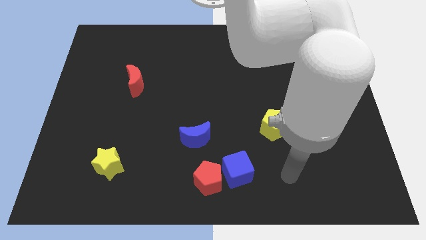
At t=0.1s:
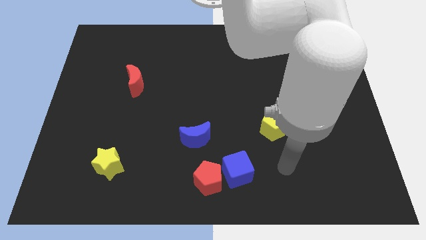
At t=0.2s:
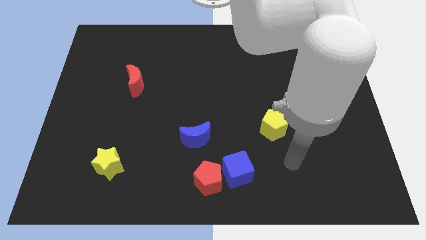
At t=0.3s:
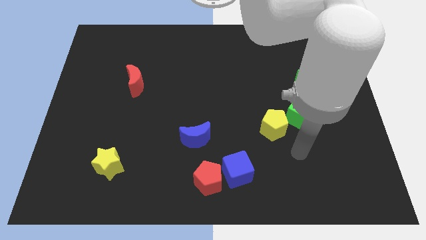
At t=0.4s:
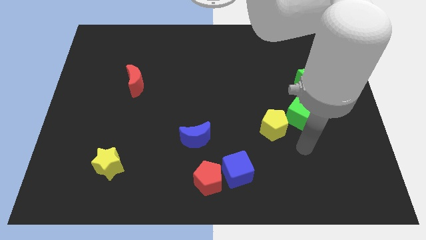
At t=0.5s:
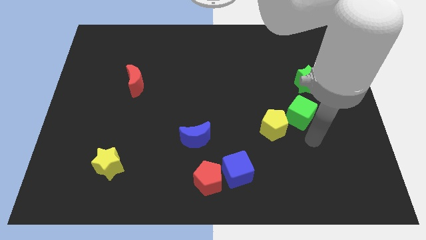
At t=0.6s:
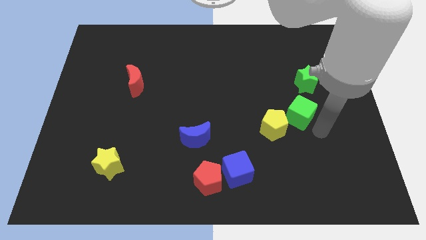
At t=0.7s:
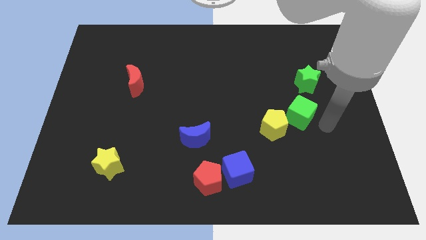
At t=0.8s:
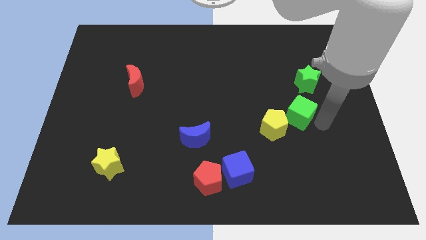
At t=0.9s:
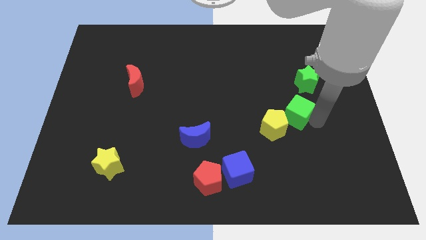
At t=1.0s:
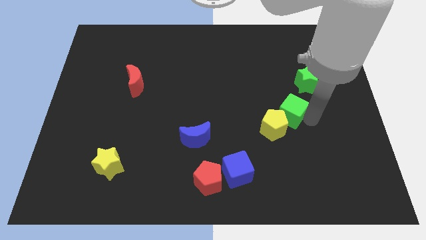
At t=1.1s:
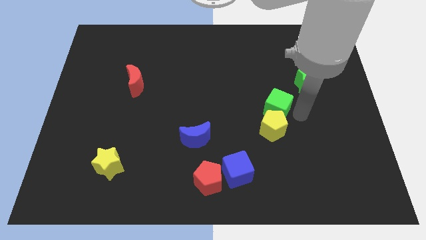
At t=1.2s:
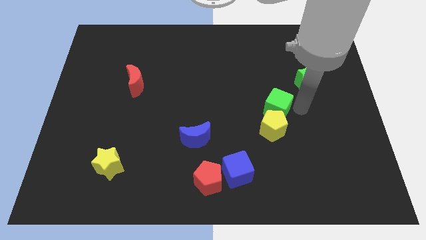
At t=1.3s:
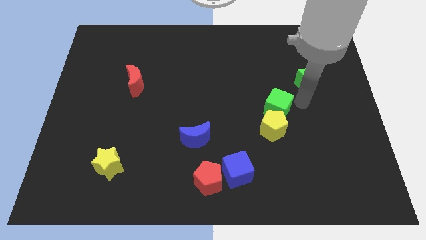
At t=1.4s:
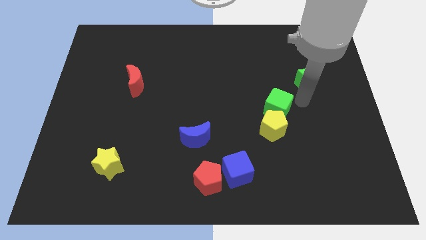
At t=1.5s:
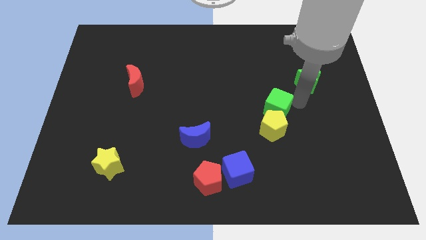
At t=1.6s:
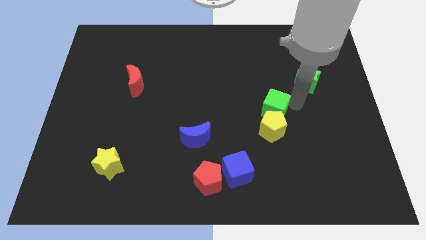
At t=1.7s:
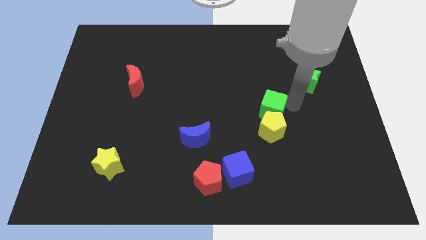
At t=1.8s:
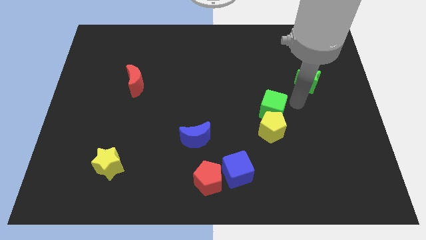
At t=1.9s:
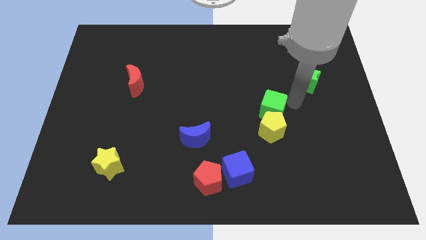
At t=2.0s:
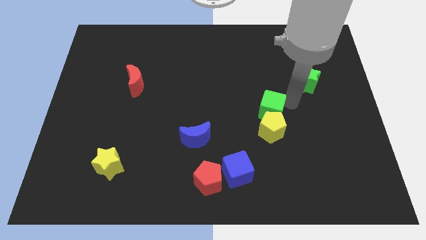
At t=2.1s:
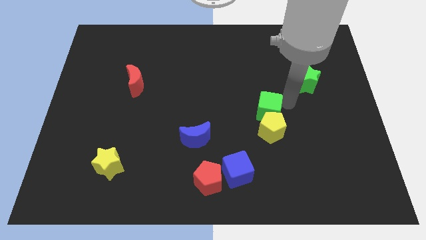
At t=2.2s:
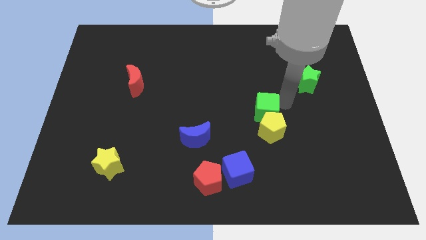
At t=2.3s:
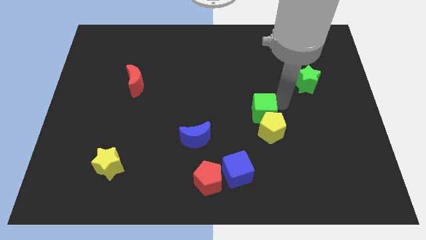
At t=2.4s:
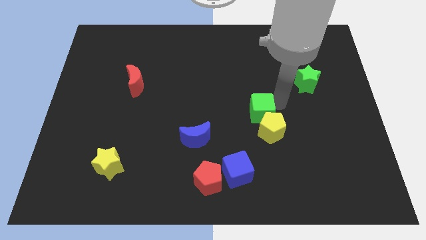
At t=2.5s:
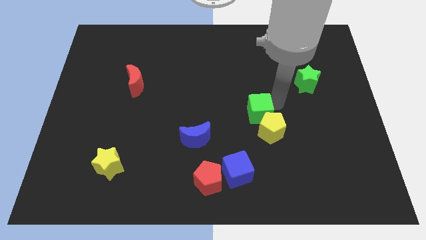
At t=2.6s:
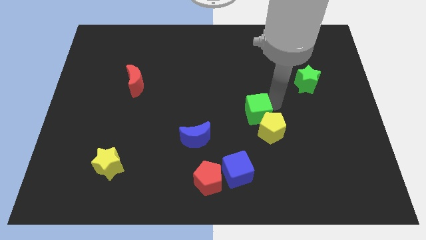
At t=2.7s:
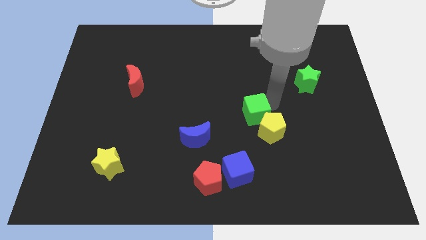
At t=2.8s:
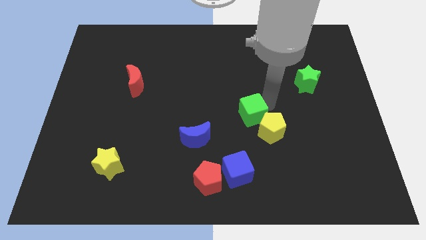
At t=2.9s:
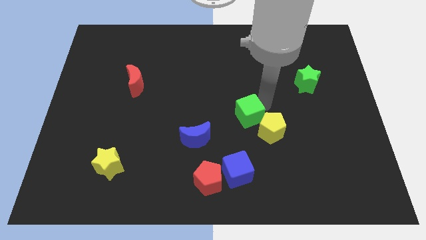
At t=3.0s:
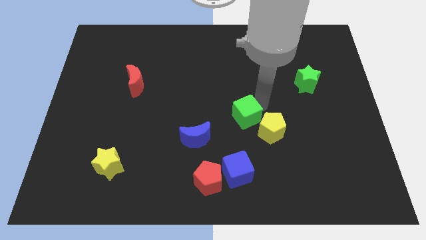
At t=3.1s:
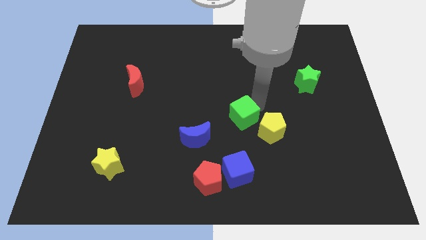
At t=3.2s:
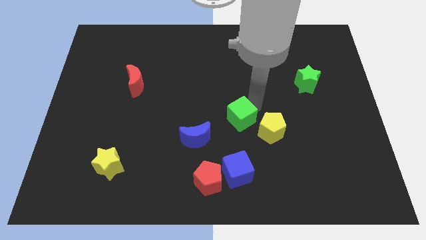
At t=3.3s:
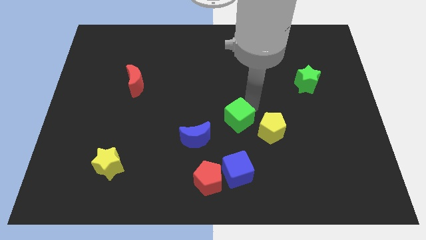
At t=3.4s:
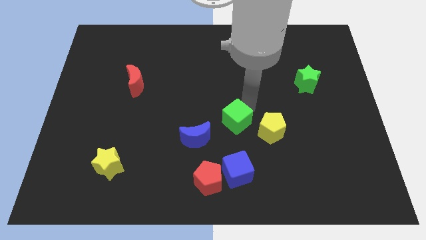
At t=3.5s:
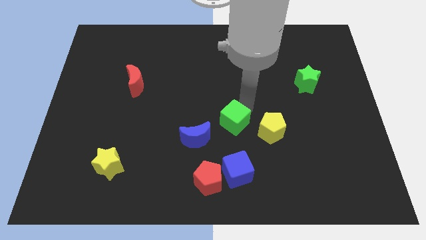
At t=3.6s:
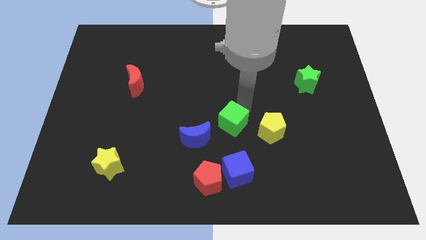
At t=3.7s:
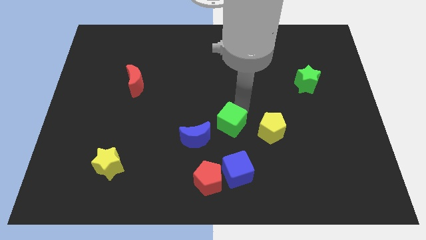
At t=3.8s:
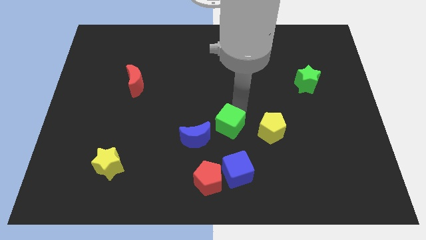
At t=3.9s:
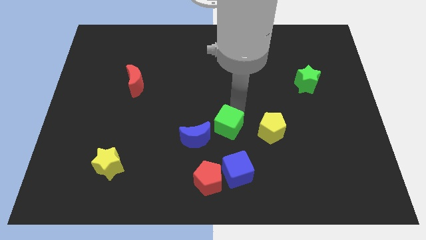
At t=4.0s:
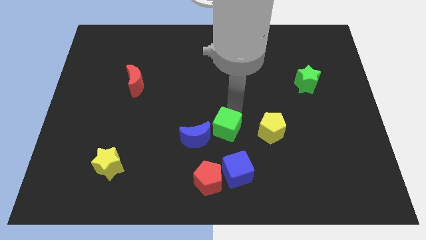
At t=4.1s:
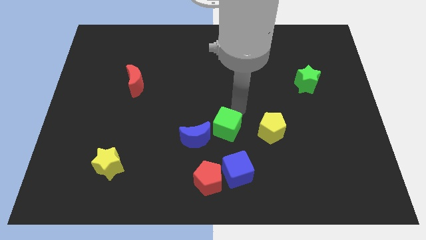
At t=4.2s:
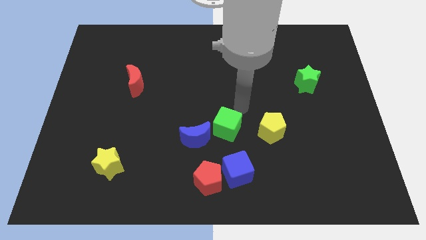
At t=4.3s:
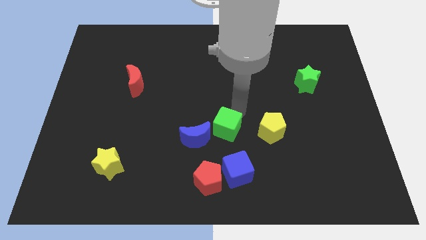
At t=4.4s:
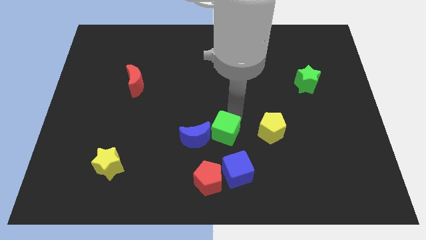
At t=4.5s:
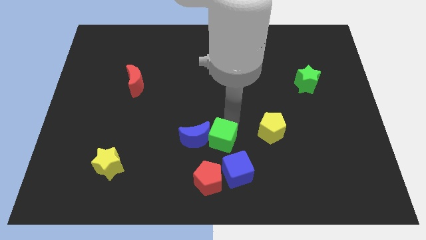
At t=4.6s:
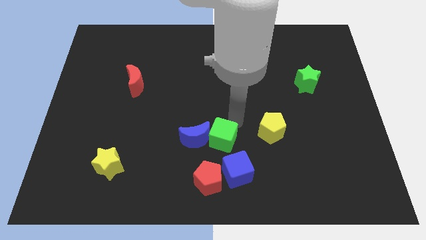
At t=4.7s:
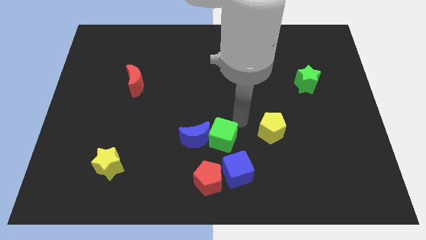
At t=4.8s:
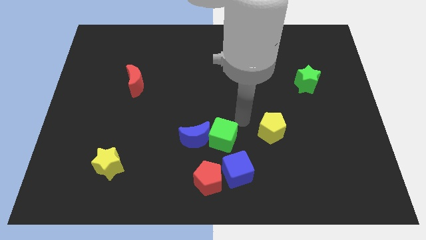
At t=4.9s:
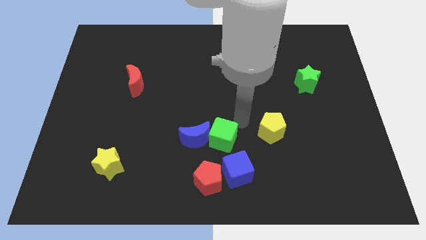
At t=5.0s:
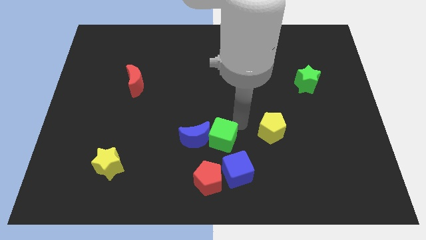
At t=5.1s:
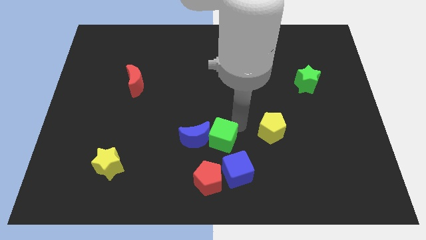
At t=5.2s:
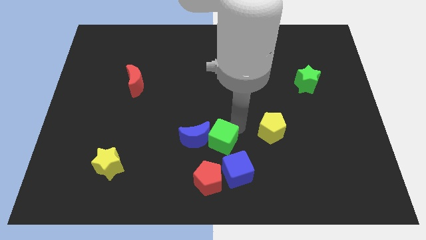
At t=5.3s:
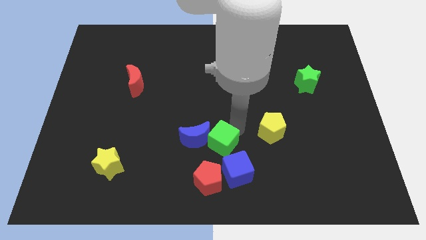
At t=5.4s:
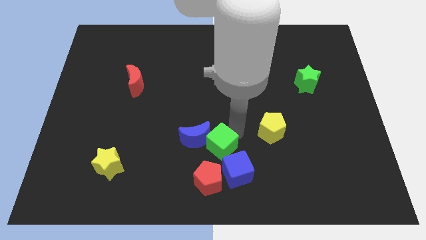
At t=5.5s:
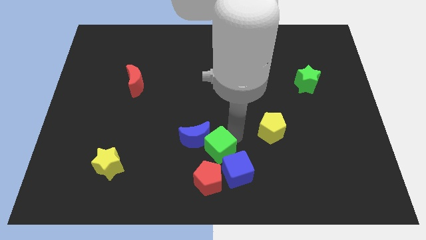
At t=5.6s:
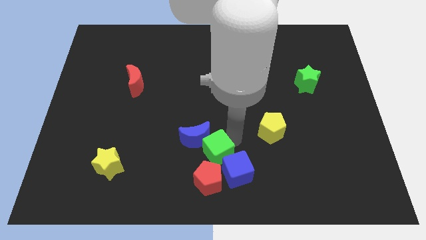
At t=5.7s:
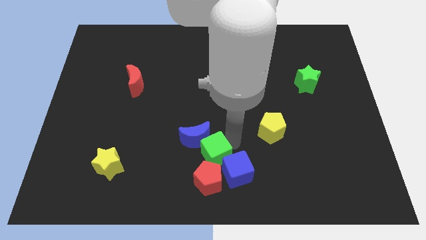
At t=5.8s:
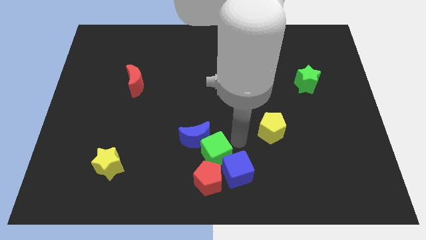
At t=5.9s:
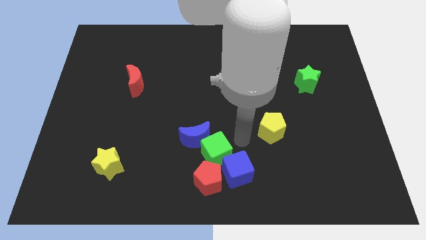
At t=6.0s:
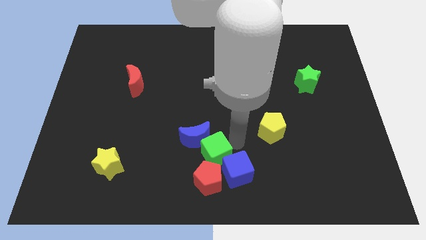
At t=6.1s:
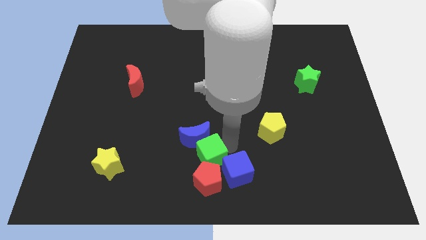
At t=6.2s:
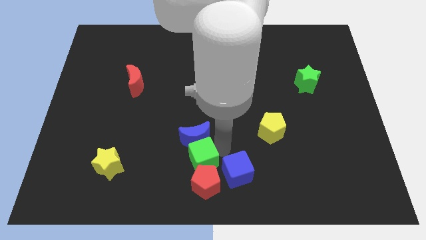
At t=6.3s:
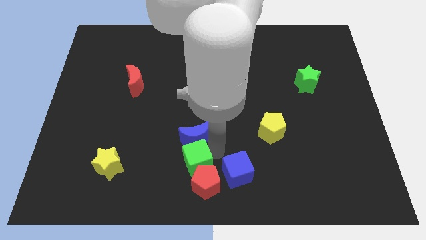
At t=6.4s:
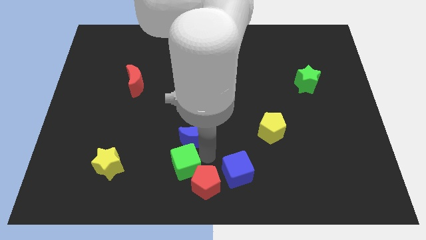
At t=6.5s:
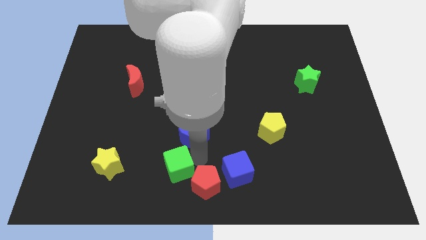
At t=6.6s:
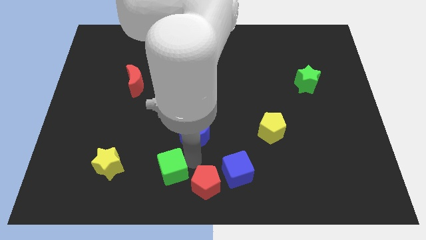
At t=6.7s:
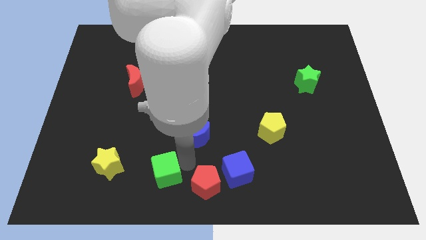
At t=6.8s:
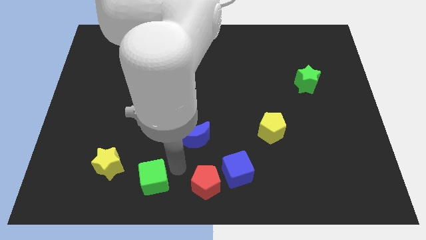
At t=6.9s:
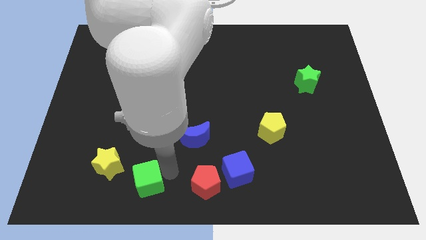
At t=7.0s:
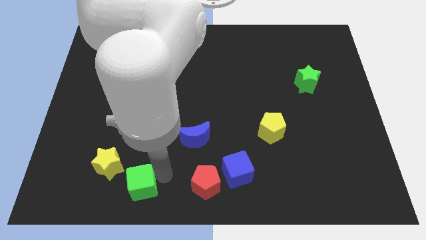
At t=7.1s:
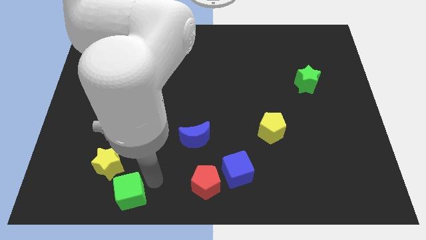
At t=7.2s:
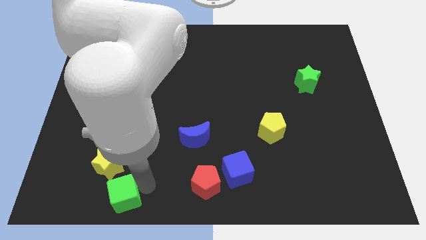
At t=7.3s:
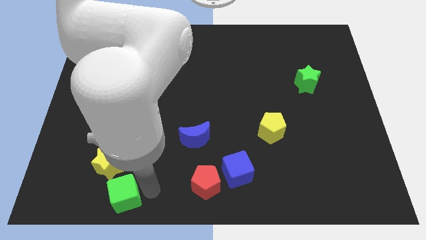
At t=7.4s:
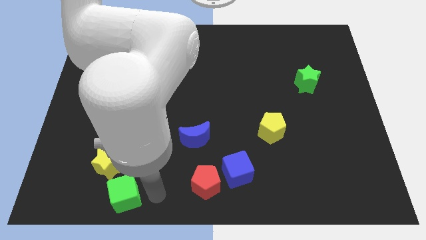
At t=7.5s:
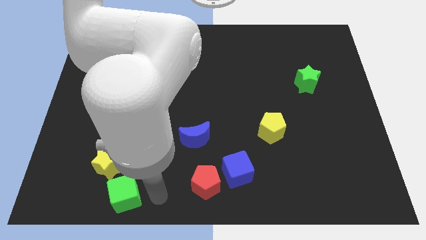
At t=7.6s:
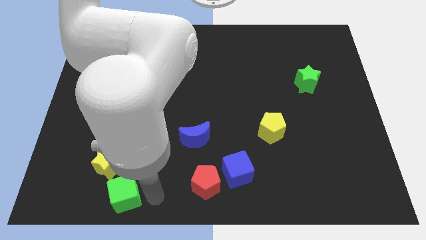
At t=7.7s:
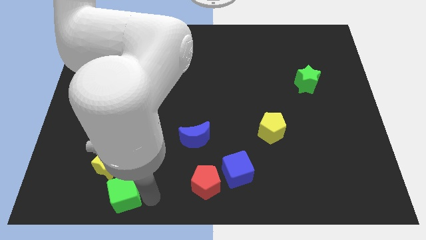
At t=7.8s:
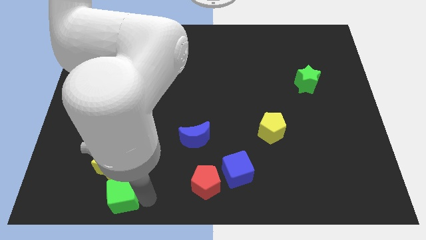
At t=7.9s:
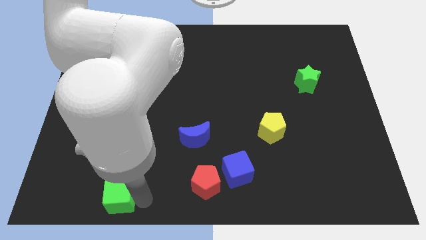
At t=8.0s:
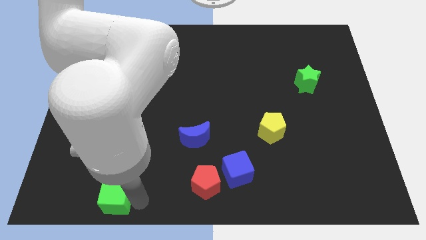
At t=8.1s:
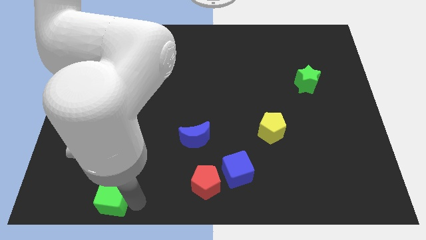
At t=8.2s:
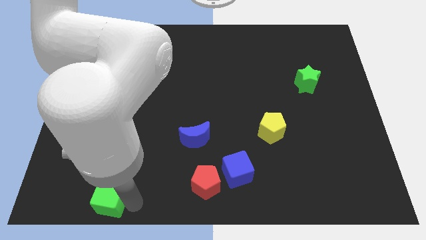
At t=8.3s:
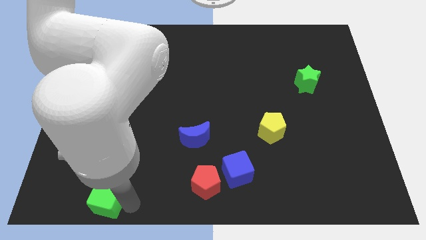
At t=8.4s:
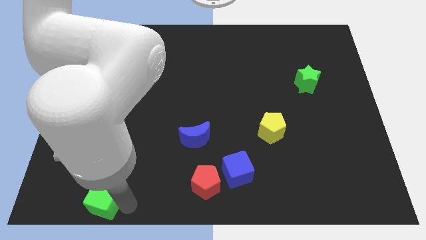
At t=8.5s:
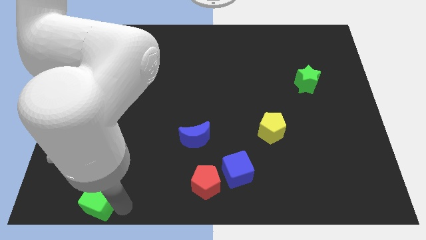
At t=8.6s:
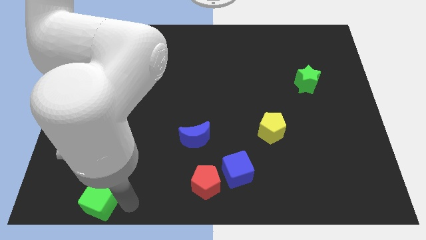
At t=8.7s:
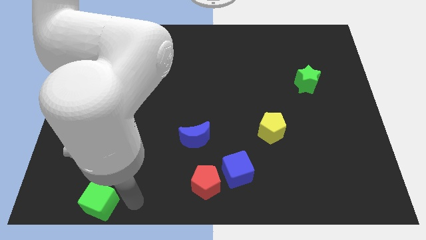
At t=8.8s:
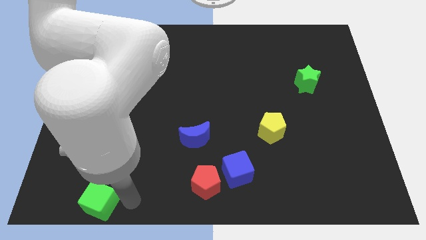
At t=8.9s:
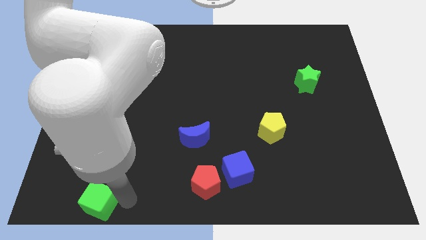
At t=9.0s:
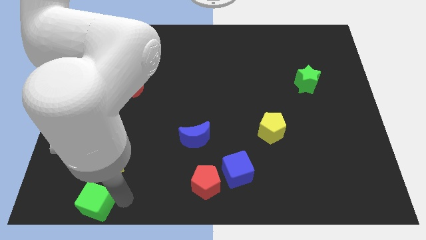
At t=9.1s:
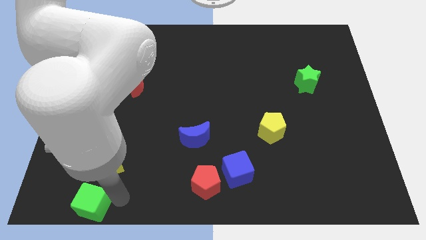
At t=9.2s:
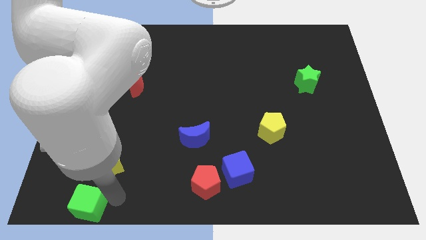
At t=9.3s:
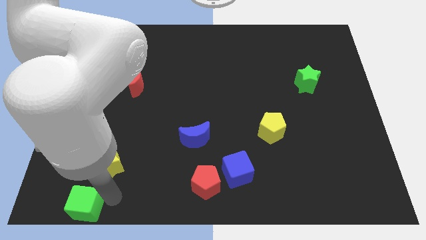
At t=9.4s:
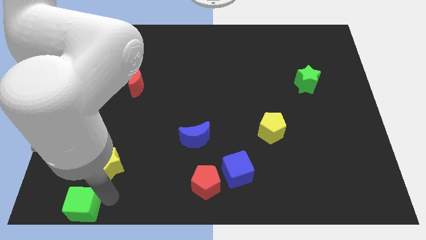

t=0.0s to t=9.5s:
put the green cube to the bottom left
